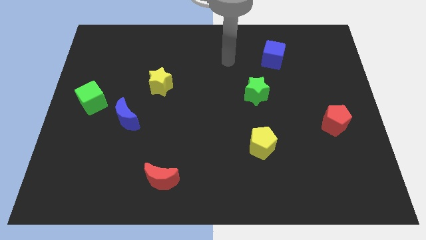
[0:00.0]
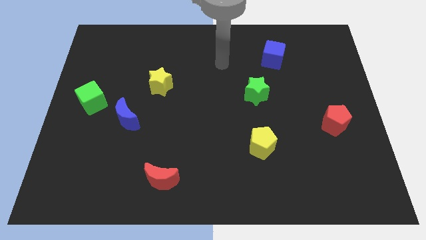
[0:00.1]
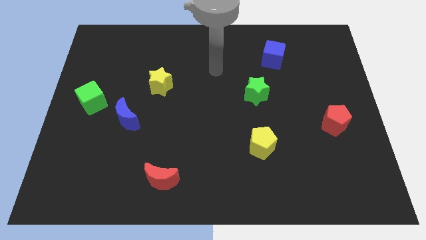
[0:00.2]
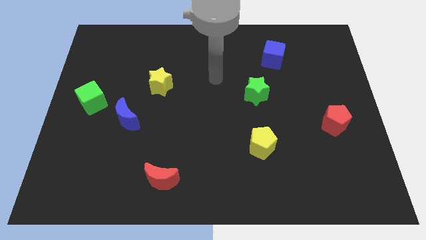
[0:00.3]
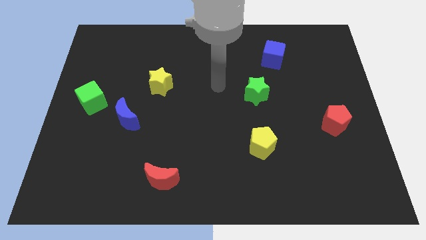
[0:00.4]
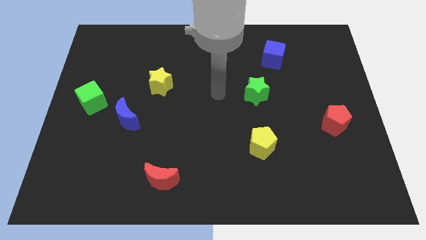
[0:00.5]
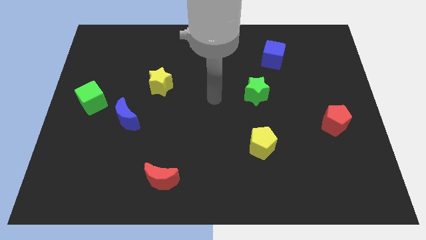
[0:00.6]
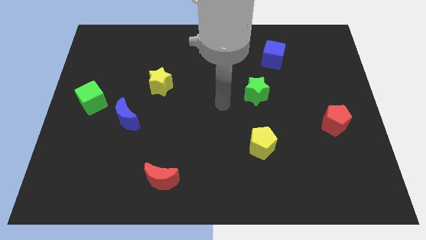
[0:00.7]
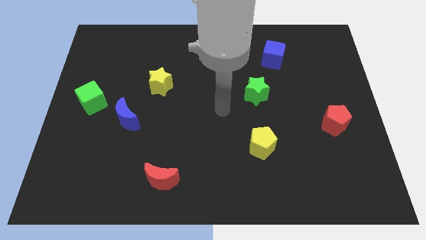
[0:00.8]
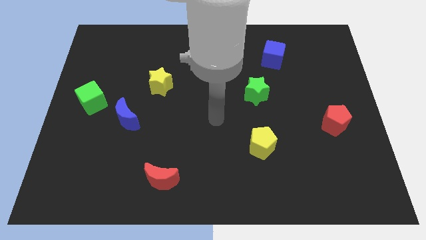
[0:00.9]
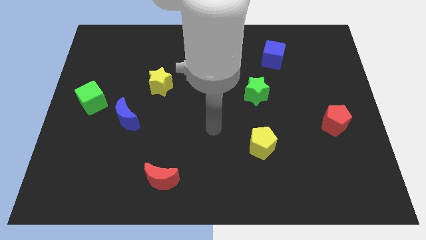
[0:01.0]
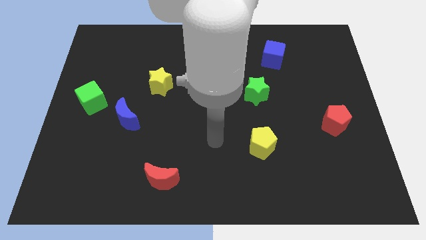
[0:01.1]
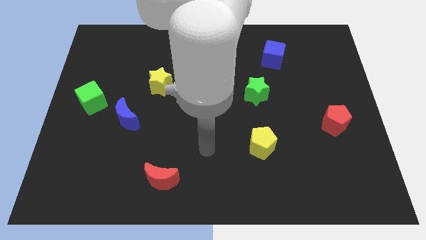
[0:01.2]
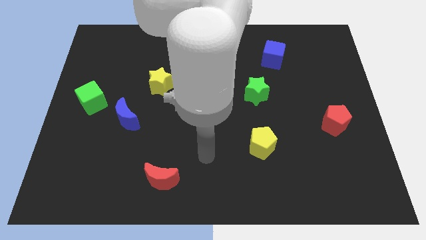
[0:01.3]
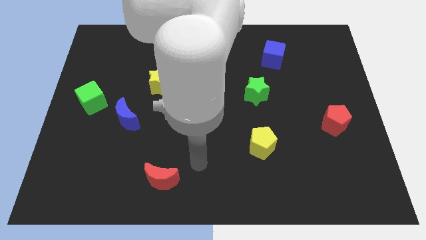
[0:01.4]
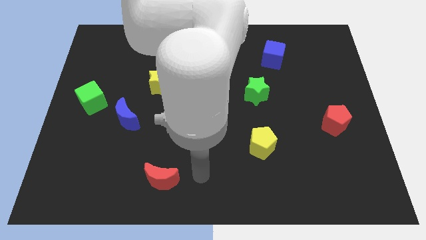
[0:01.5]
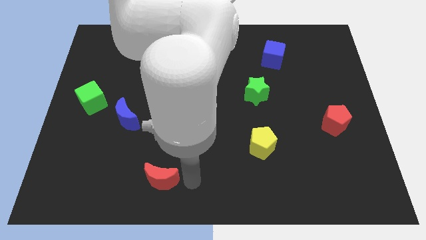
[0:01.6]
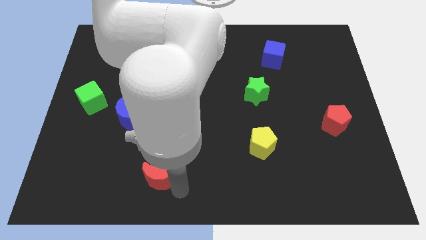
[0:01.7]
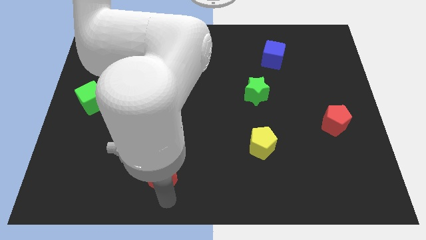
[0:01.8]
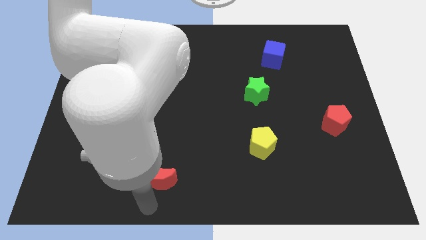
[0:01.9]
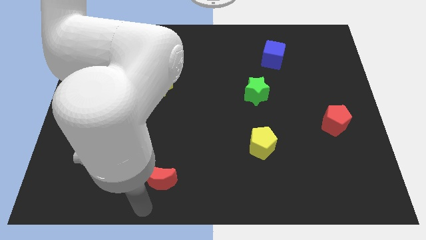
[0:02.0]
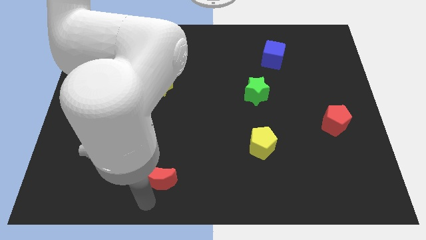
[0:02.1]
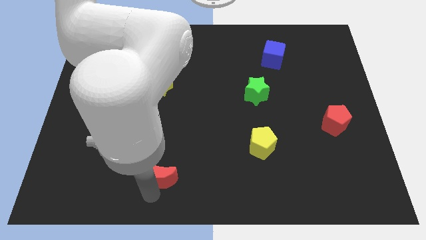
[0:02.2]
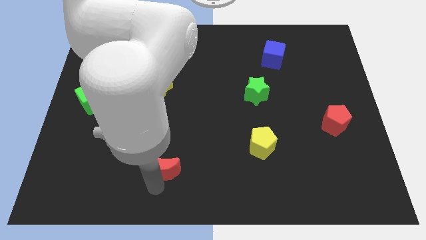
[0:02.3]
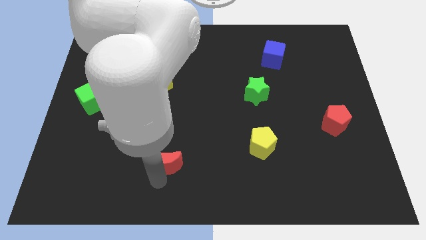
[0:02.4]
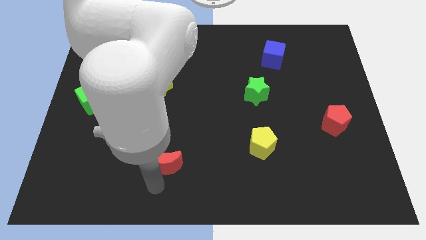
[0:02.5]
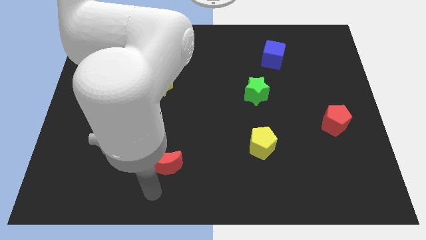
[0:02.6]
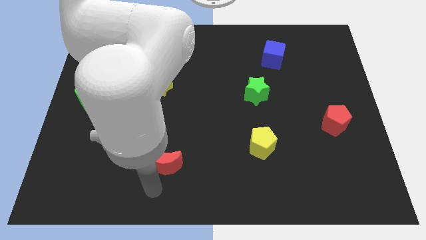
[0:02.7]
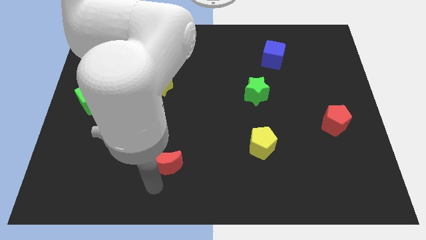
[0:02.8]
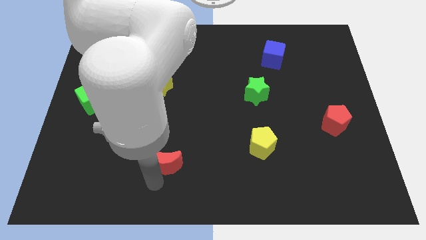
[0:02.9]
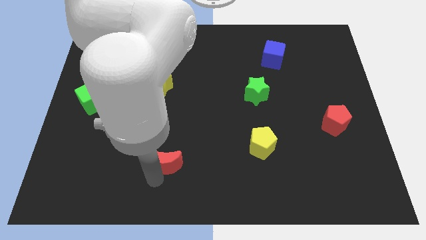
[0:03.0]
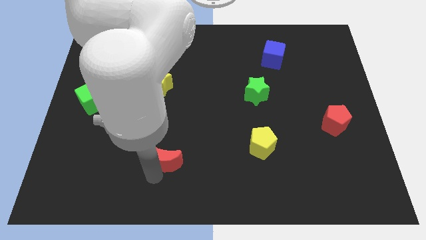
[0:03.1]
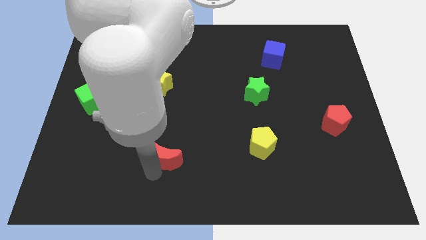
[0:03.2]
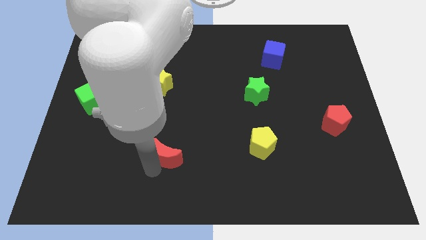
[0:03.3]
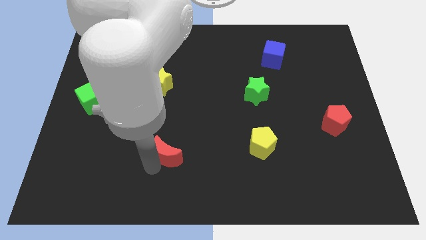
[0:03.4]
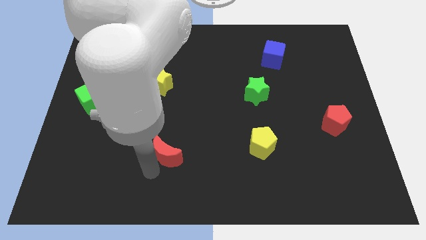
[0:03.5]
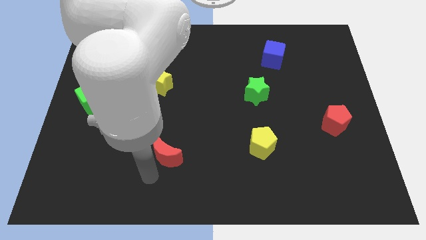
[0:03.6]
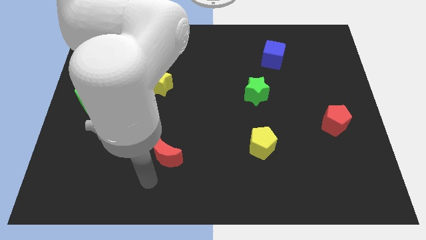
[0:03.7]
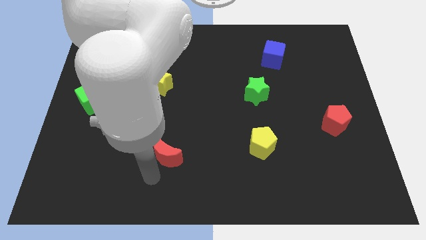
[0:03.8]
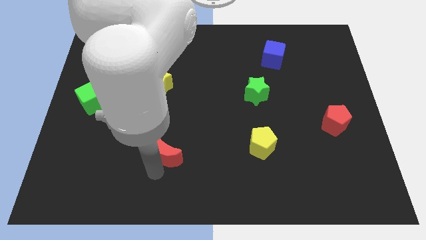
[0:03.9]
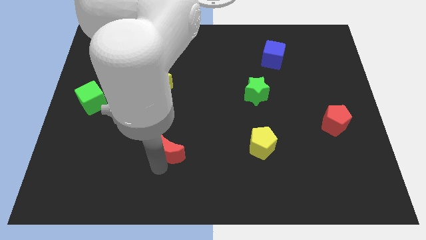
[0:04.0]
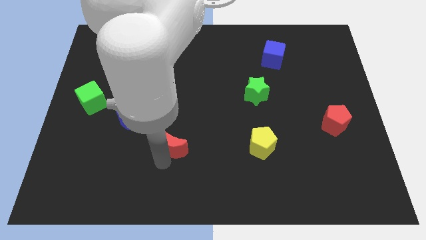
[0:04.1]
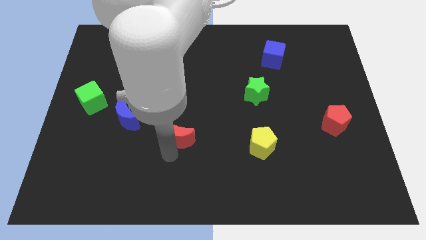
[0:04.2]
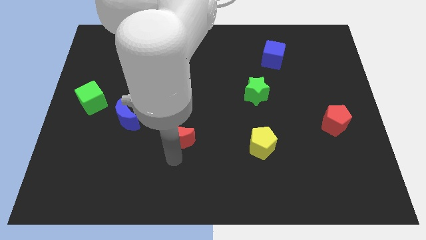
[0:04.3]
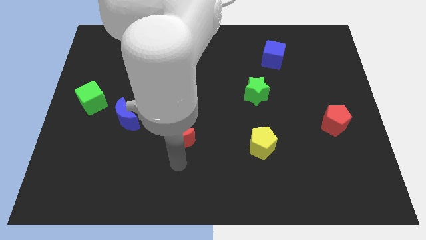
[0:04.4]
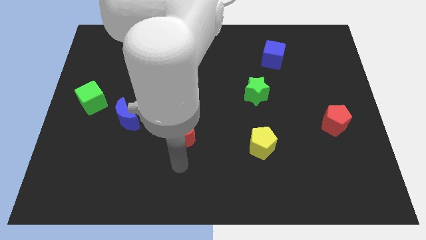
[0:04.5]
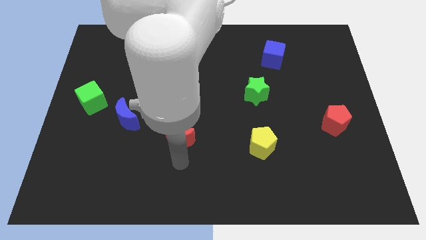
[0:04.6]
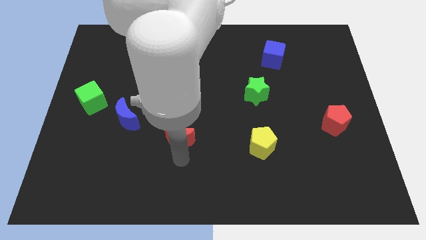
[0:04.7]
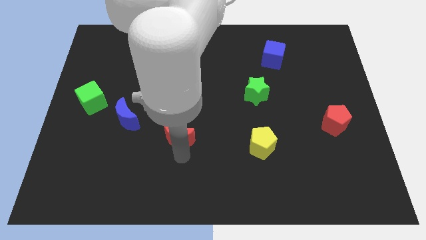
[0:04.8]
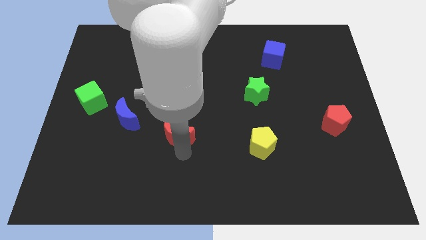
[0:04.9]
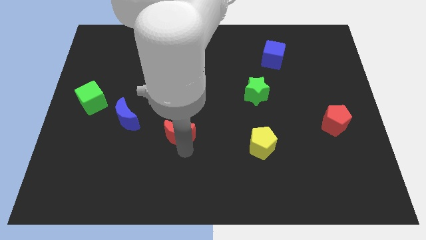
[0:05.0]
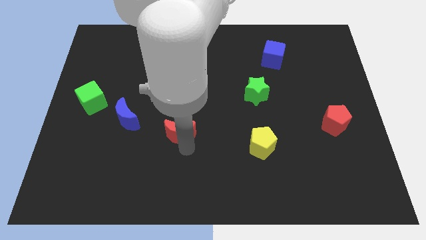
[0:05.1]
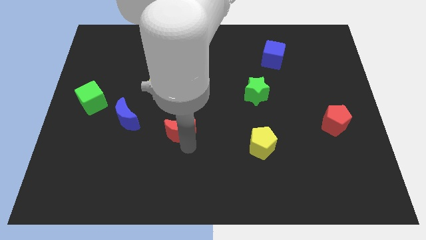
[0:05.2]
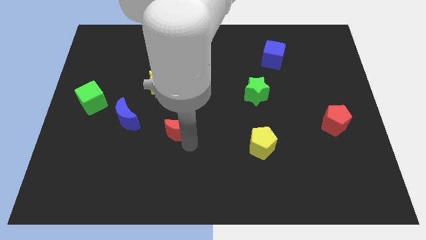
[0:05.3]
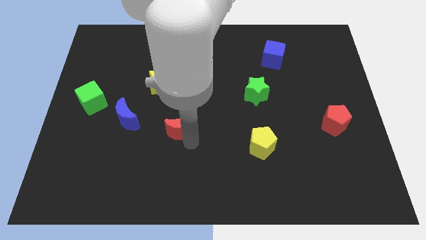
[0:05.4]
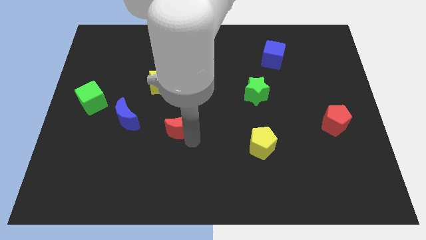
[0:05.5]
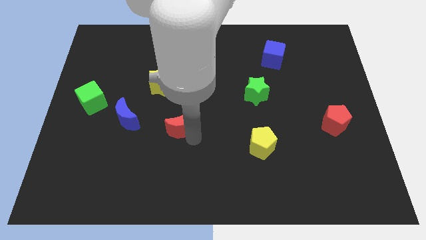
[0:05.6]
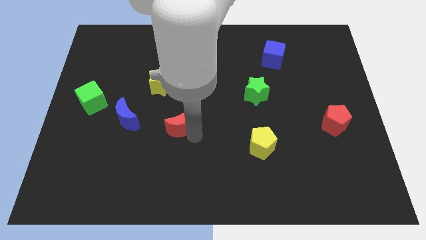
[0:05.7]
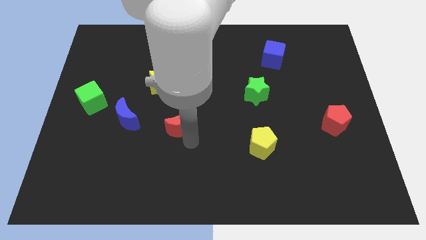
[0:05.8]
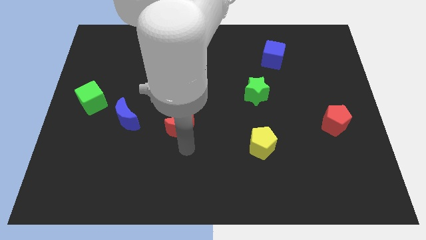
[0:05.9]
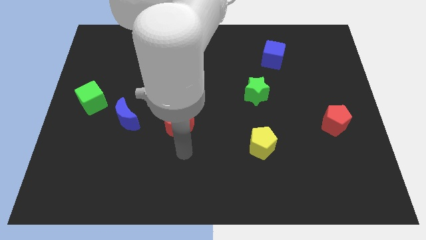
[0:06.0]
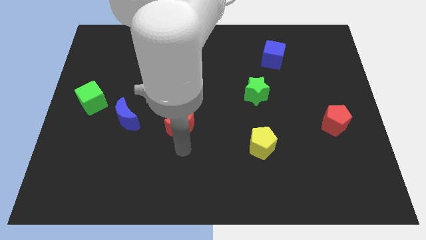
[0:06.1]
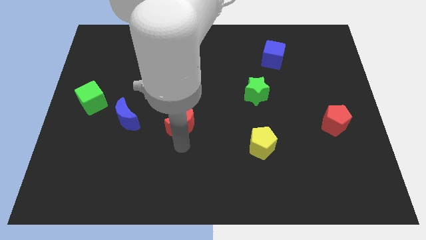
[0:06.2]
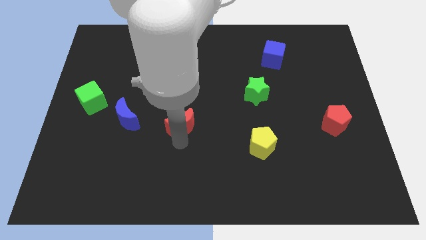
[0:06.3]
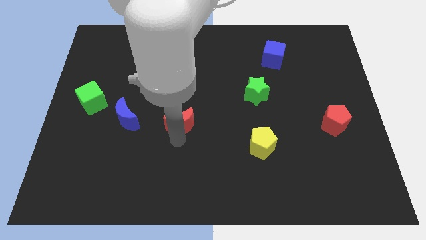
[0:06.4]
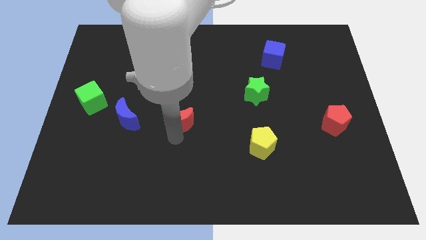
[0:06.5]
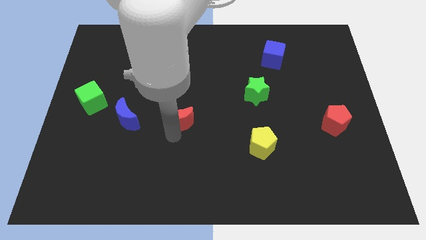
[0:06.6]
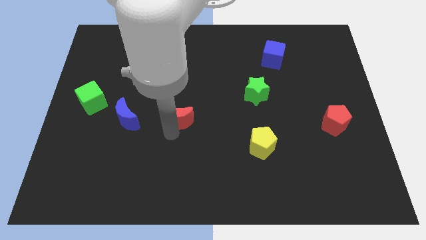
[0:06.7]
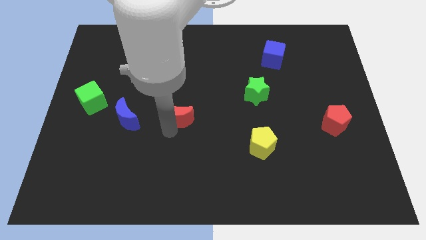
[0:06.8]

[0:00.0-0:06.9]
slide the red moon to the bottom right side of the yellow star
